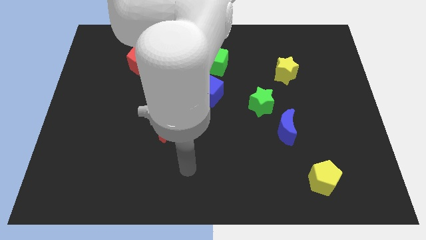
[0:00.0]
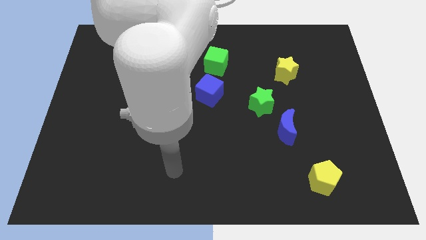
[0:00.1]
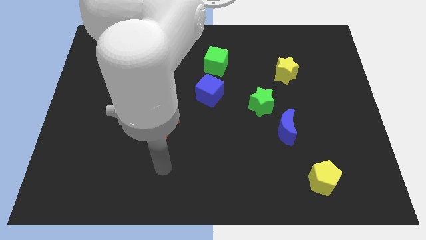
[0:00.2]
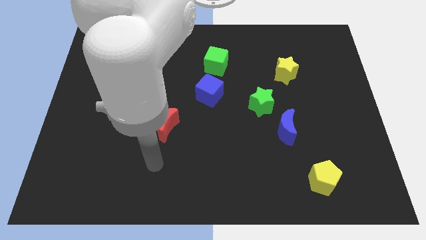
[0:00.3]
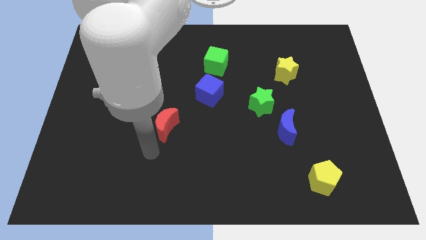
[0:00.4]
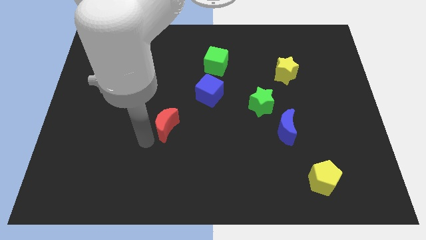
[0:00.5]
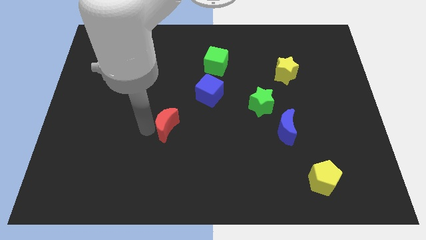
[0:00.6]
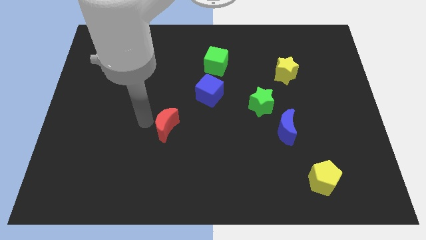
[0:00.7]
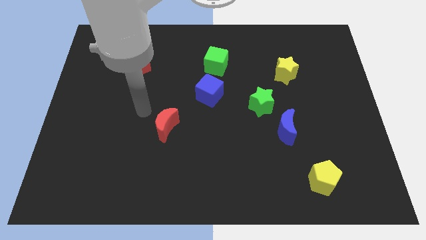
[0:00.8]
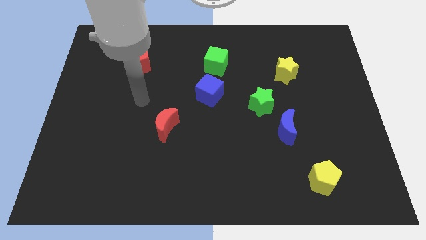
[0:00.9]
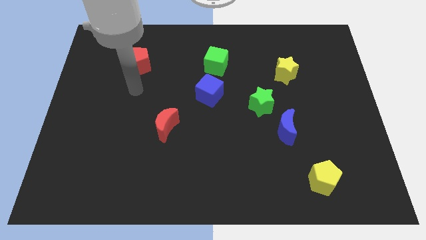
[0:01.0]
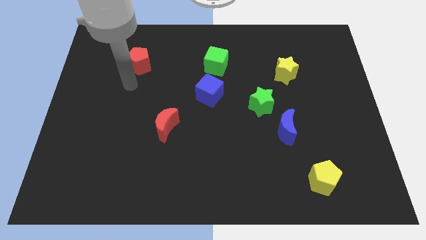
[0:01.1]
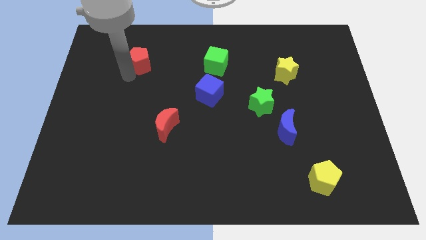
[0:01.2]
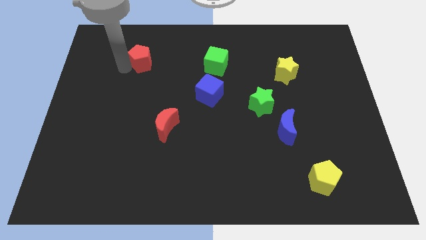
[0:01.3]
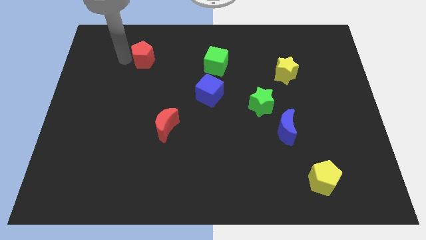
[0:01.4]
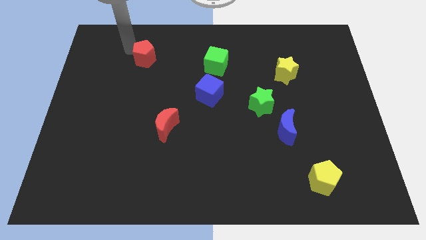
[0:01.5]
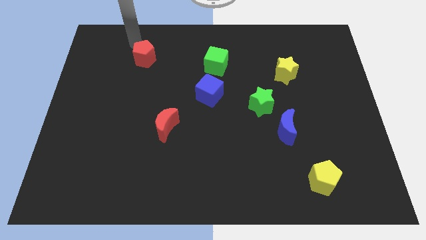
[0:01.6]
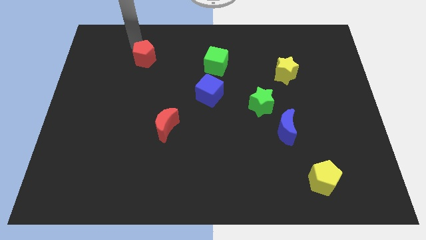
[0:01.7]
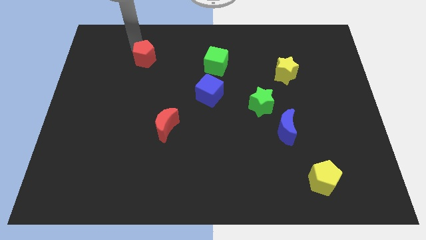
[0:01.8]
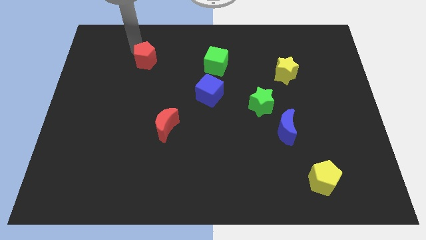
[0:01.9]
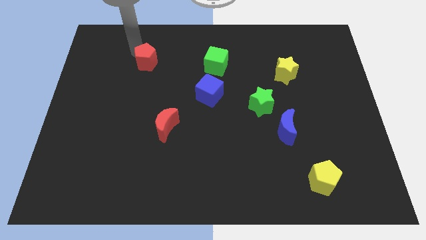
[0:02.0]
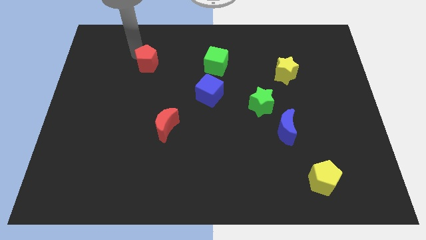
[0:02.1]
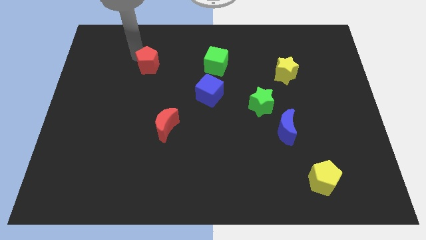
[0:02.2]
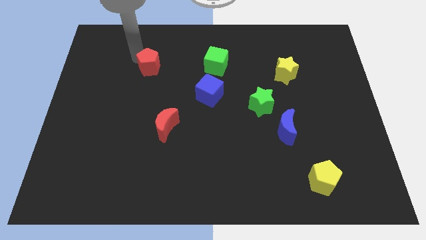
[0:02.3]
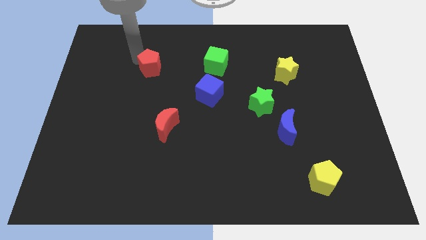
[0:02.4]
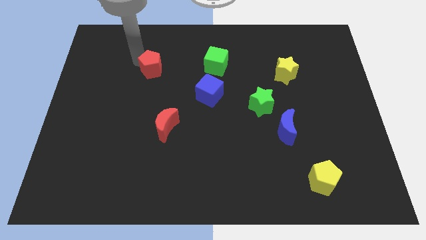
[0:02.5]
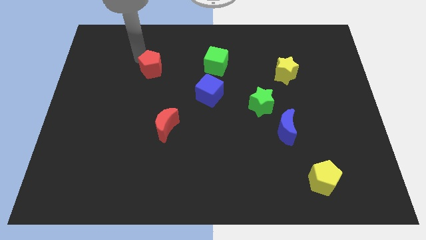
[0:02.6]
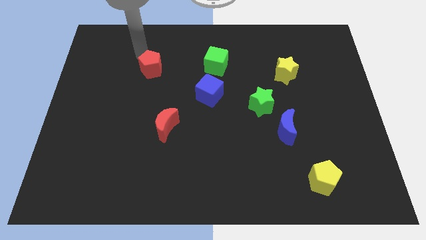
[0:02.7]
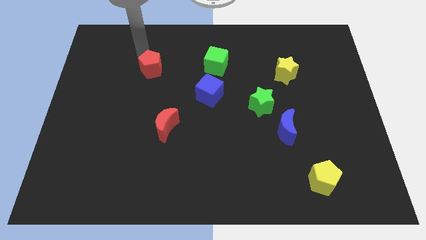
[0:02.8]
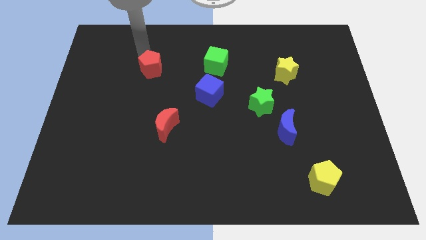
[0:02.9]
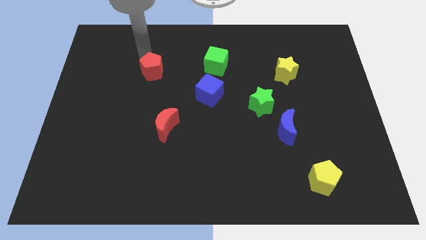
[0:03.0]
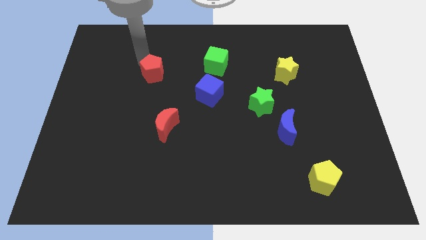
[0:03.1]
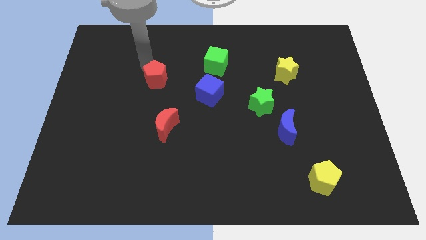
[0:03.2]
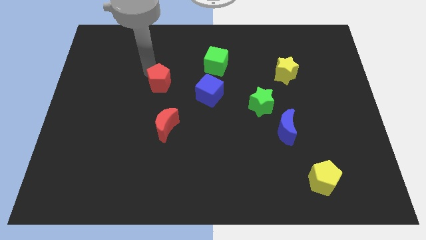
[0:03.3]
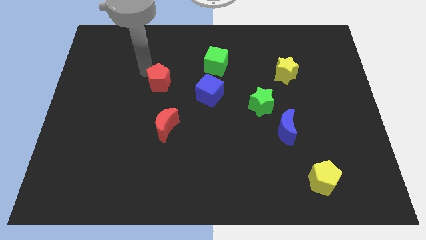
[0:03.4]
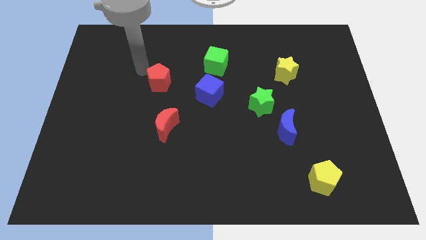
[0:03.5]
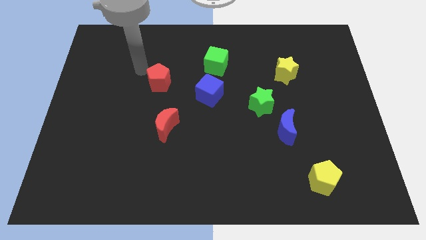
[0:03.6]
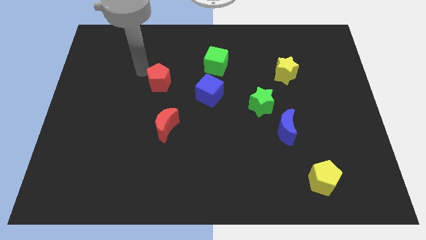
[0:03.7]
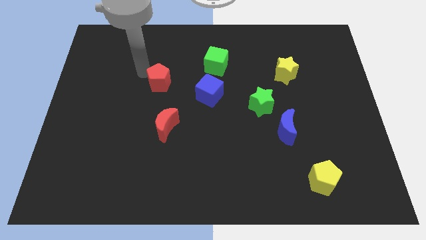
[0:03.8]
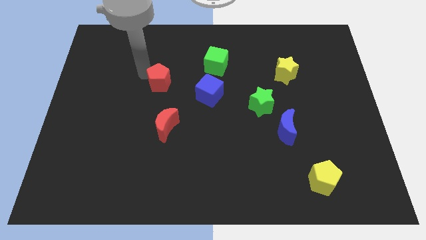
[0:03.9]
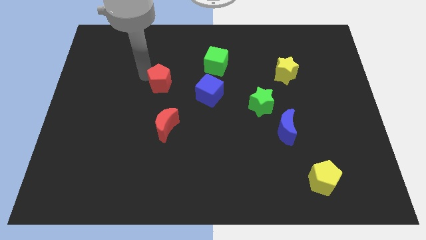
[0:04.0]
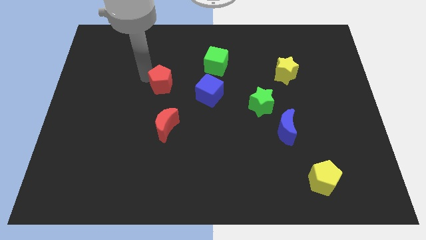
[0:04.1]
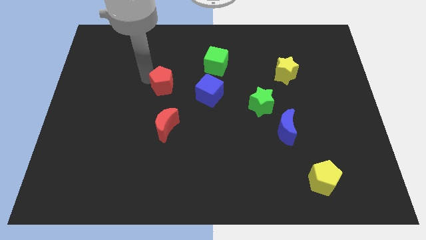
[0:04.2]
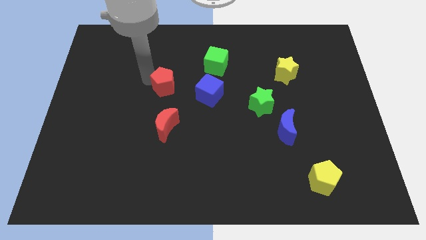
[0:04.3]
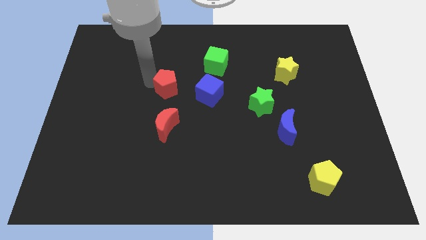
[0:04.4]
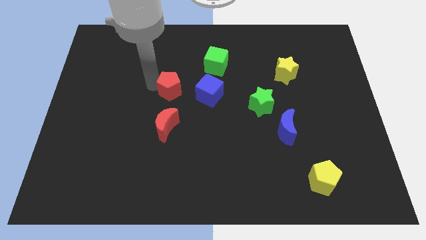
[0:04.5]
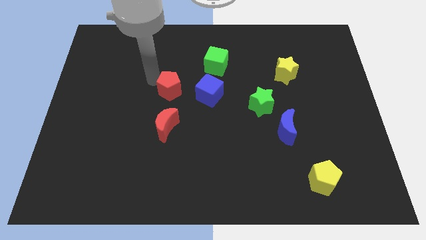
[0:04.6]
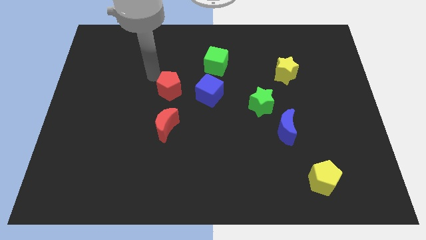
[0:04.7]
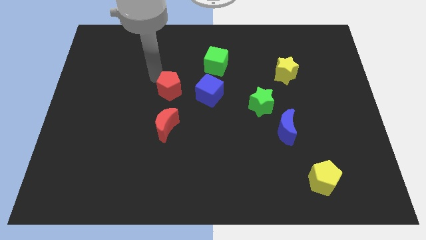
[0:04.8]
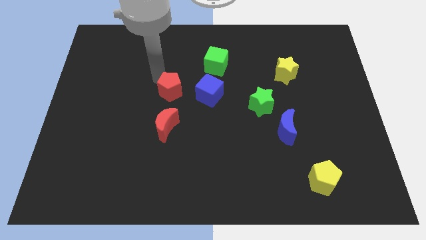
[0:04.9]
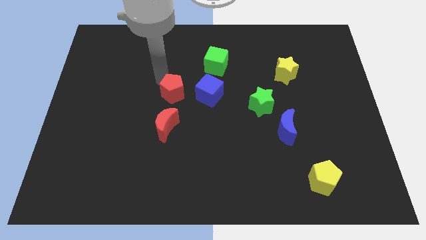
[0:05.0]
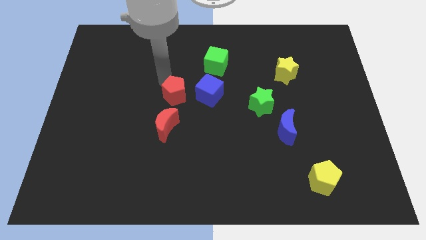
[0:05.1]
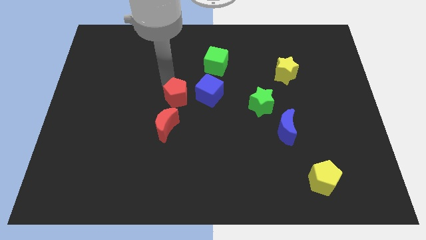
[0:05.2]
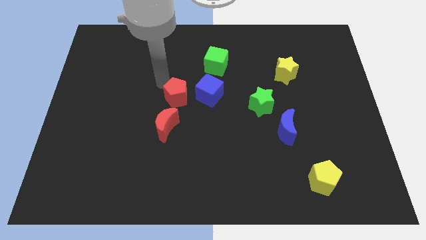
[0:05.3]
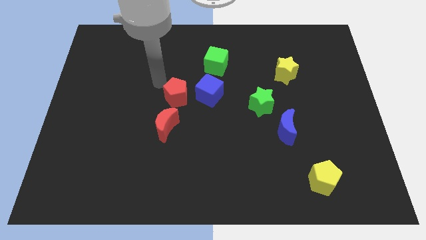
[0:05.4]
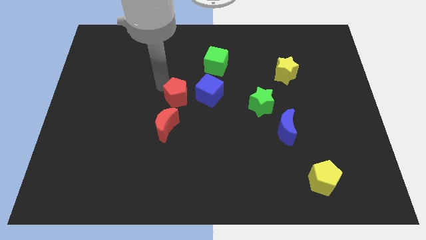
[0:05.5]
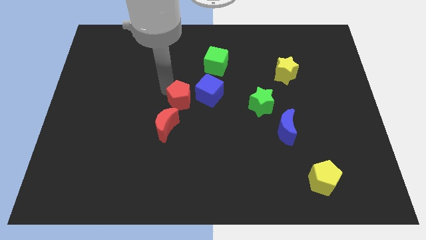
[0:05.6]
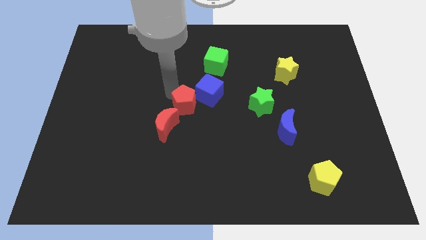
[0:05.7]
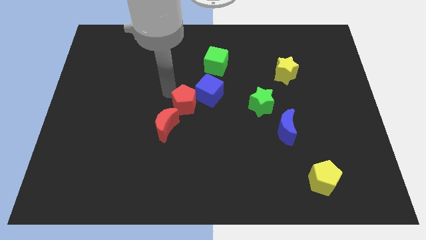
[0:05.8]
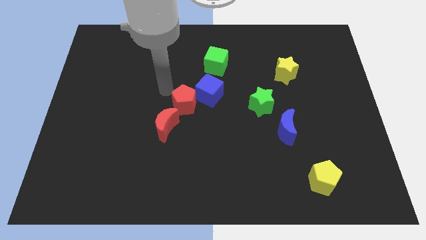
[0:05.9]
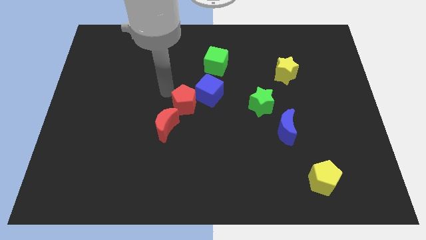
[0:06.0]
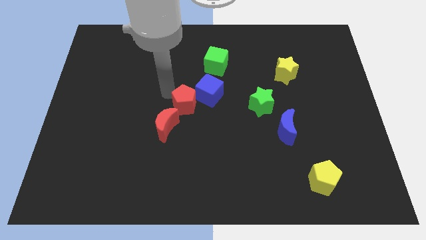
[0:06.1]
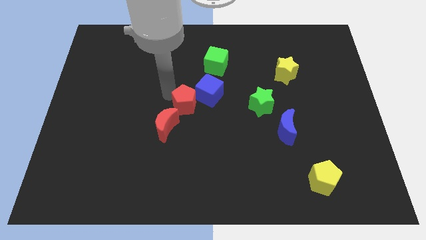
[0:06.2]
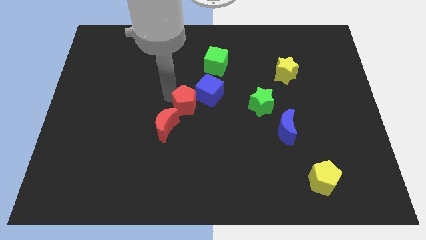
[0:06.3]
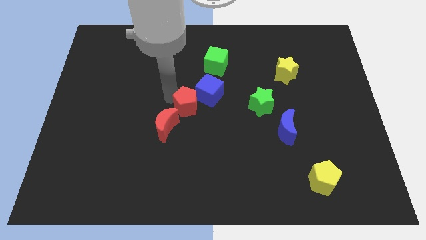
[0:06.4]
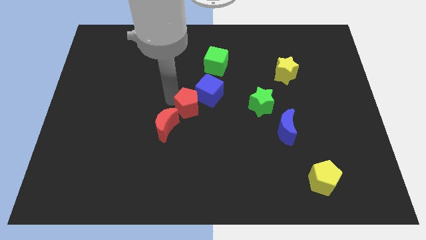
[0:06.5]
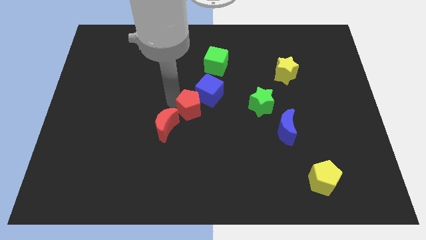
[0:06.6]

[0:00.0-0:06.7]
slide the red pentagon down and then right

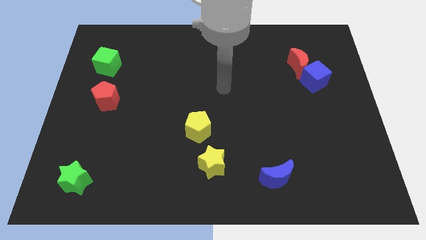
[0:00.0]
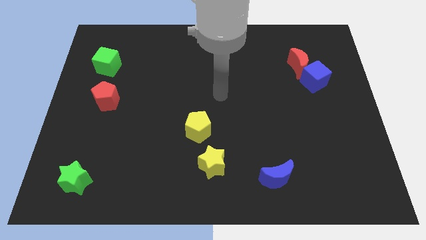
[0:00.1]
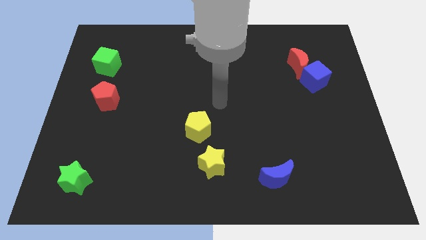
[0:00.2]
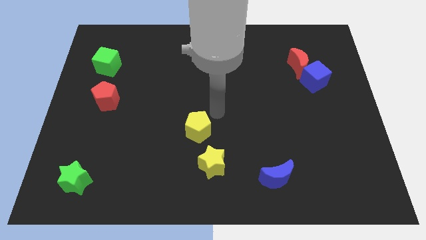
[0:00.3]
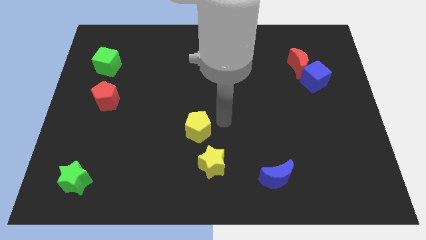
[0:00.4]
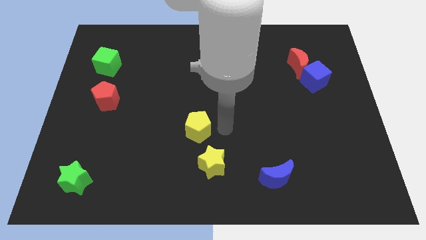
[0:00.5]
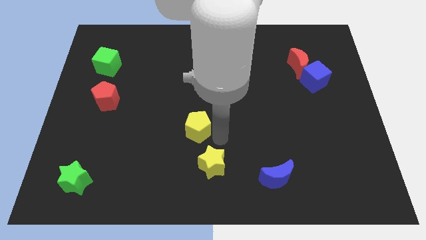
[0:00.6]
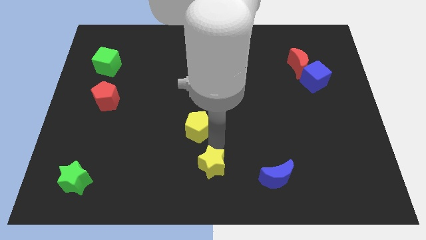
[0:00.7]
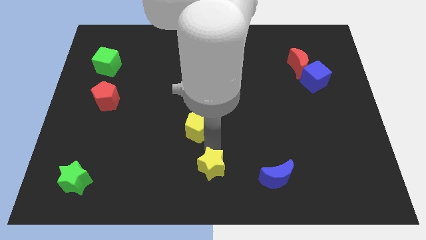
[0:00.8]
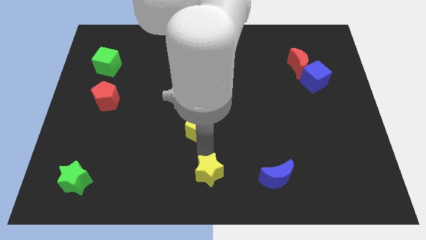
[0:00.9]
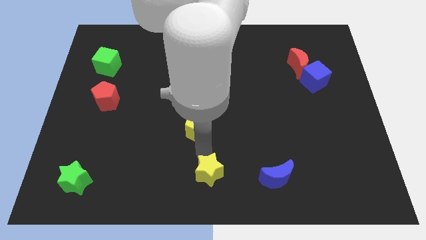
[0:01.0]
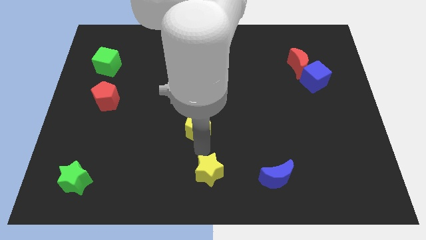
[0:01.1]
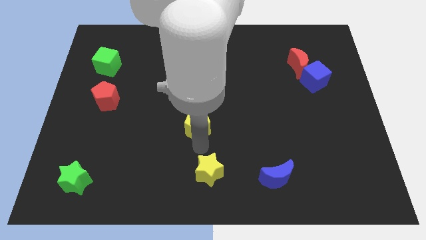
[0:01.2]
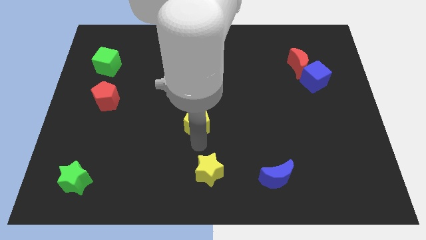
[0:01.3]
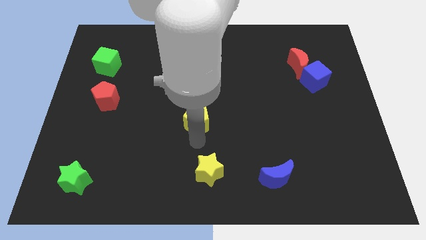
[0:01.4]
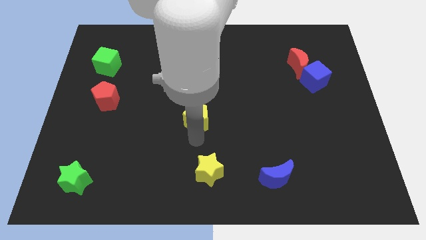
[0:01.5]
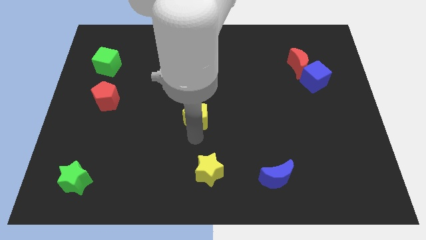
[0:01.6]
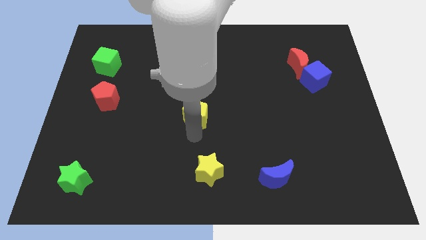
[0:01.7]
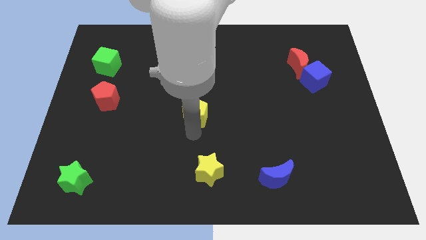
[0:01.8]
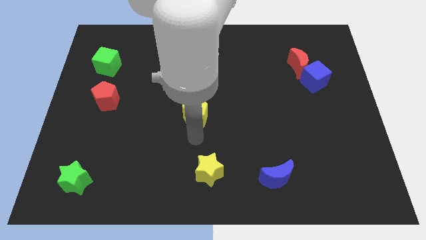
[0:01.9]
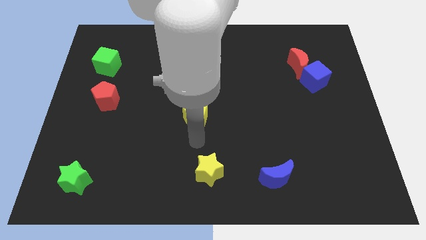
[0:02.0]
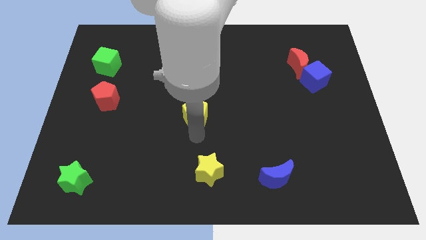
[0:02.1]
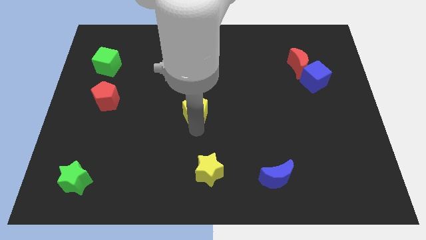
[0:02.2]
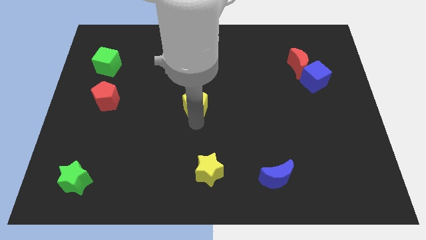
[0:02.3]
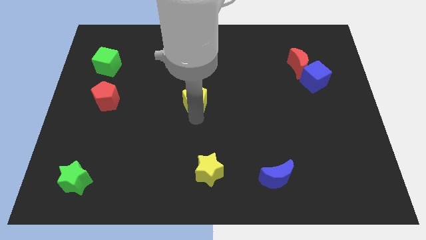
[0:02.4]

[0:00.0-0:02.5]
slide the yellow pentagon up a little bit
